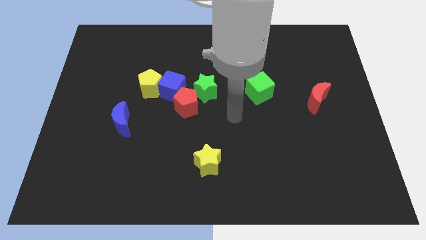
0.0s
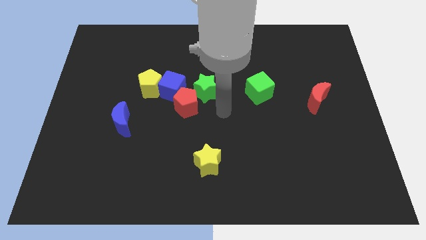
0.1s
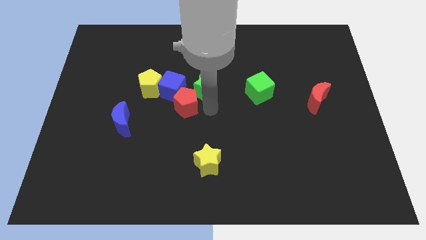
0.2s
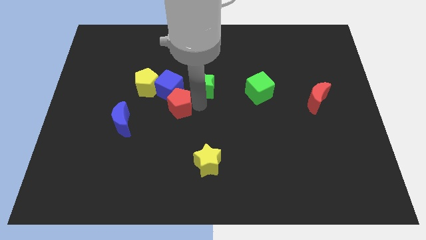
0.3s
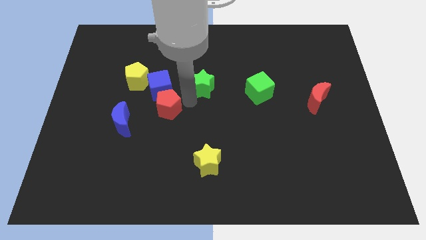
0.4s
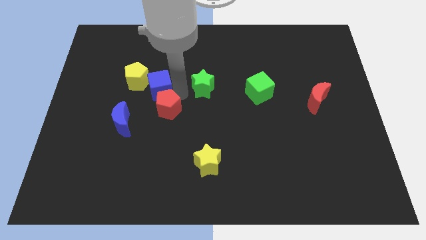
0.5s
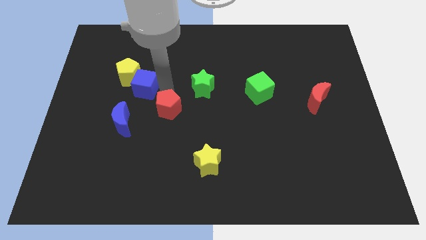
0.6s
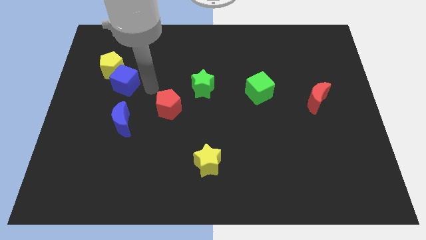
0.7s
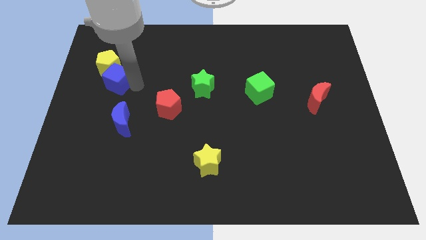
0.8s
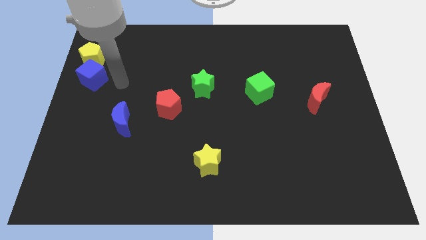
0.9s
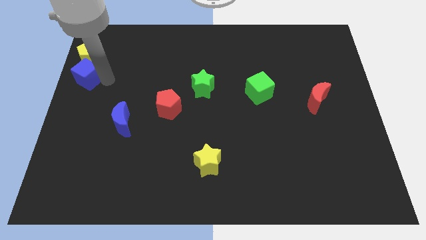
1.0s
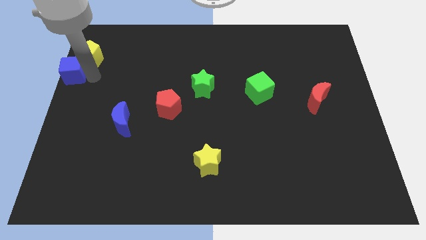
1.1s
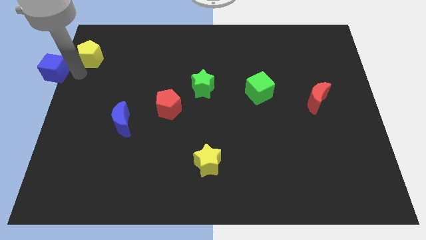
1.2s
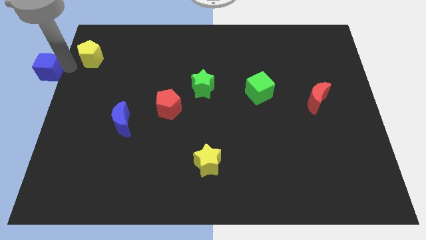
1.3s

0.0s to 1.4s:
pull the yellow pentagon apart from the blue cube

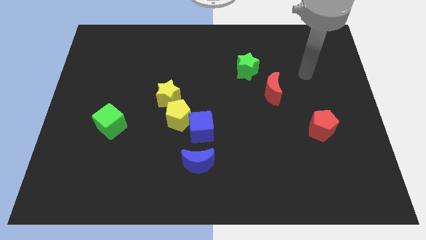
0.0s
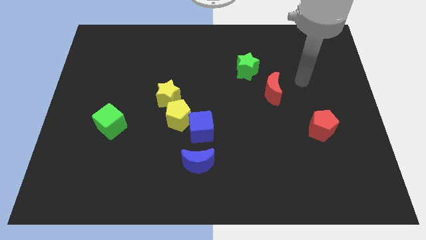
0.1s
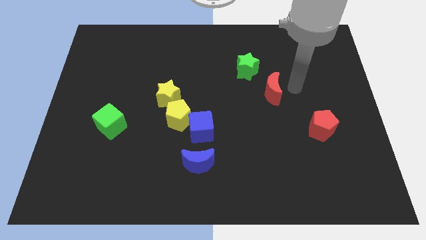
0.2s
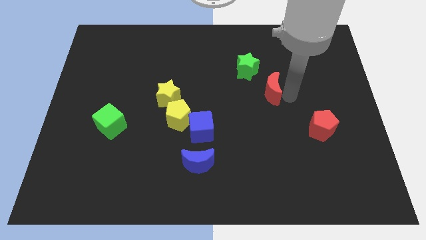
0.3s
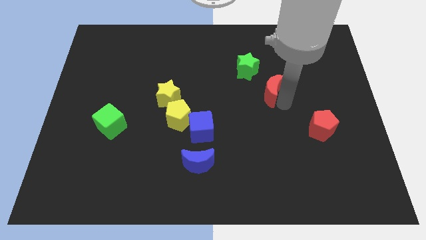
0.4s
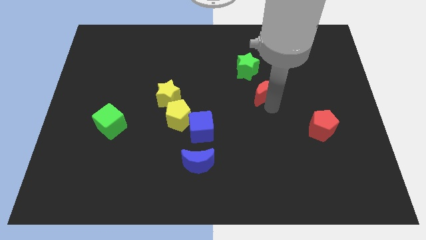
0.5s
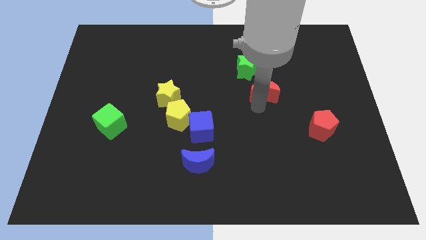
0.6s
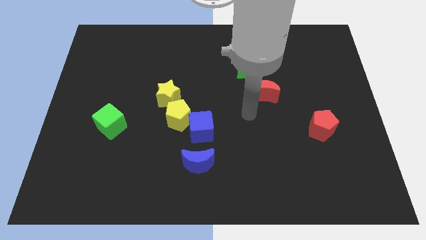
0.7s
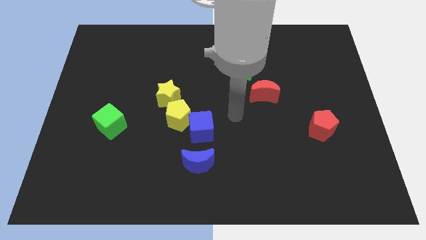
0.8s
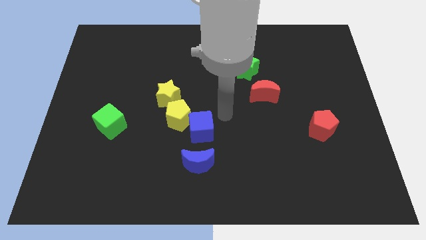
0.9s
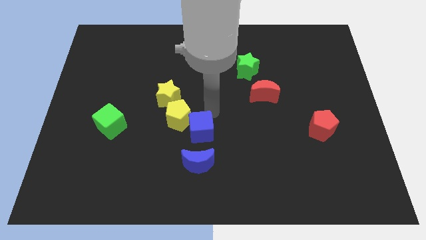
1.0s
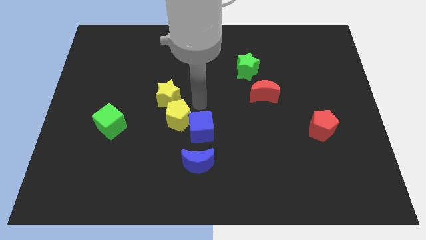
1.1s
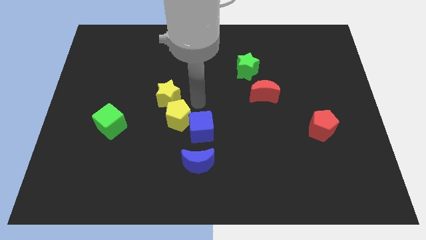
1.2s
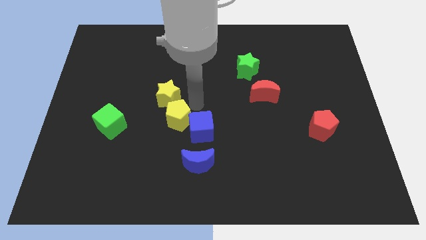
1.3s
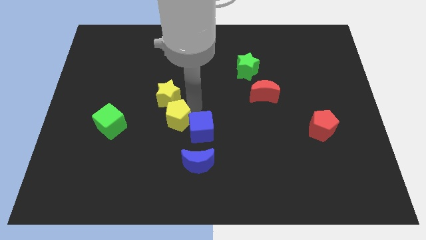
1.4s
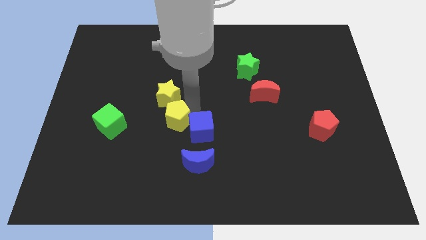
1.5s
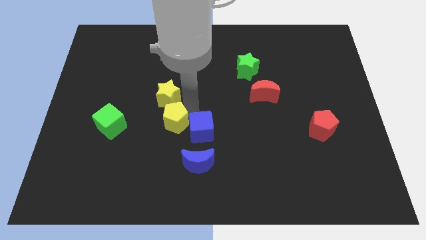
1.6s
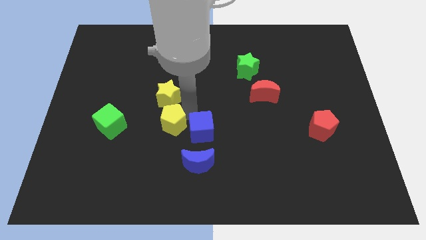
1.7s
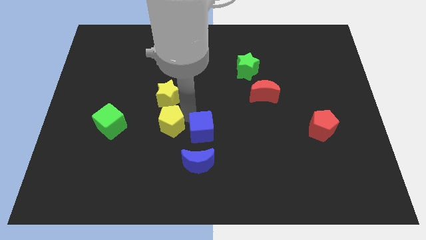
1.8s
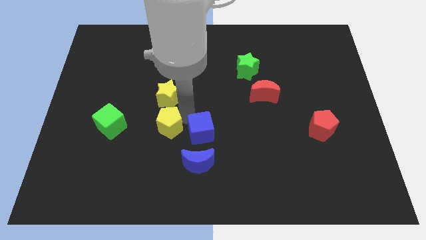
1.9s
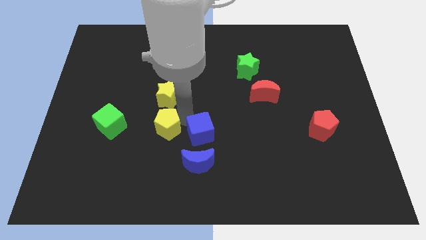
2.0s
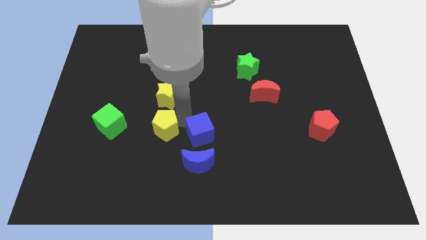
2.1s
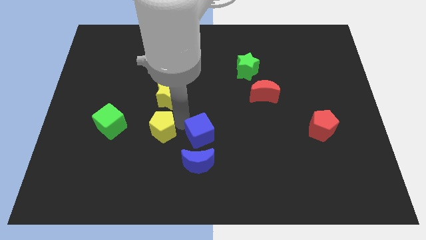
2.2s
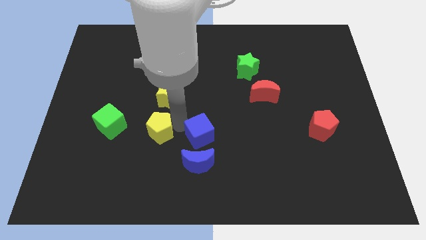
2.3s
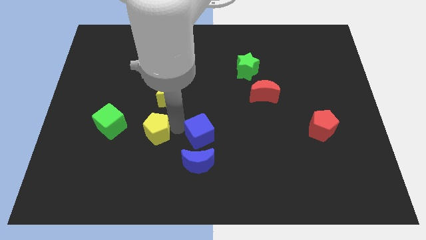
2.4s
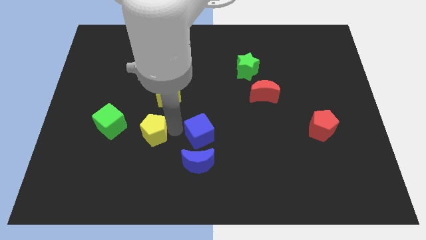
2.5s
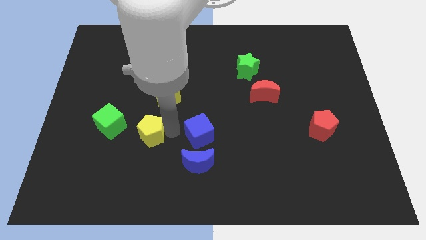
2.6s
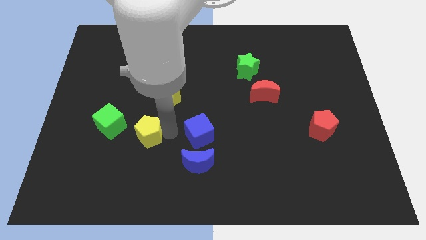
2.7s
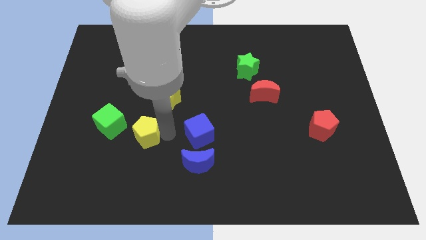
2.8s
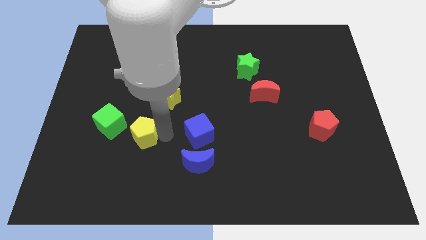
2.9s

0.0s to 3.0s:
separate the yellow pentagon from the blue cube and yellow star

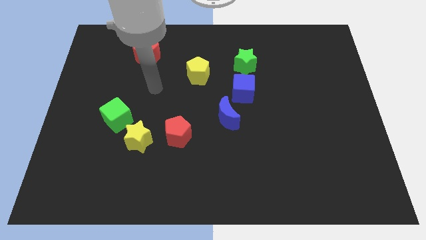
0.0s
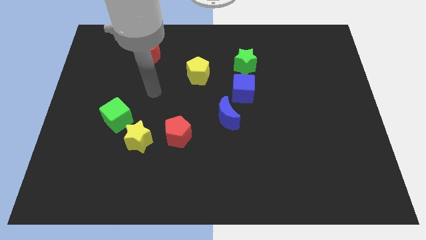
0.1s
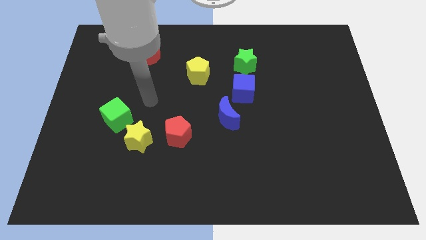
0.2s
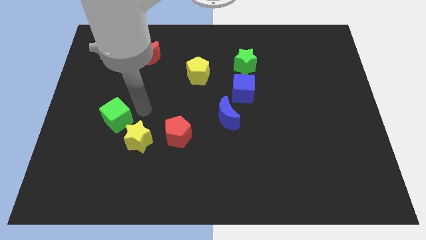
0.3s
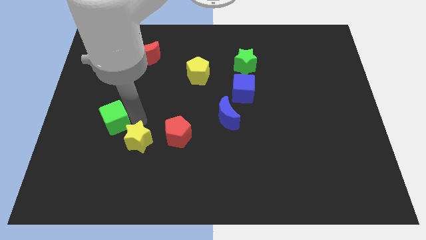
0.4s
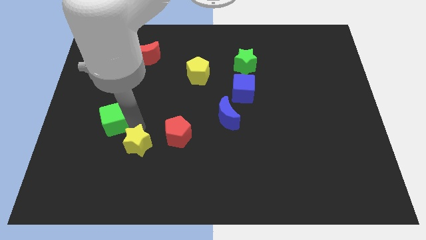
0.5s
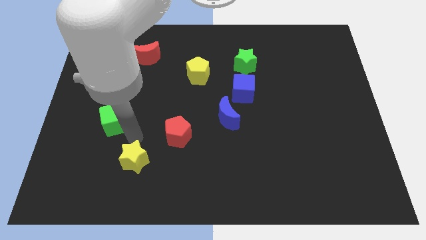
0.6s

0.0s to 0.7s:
move the green cube away from the yellow star

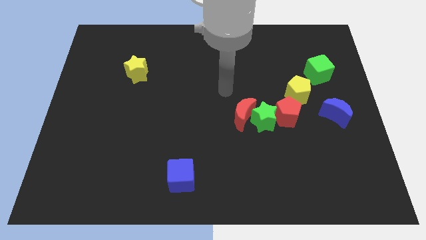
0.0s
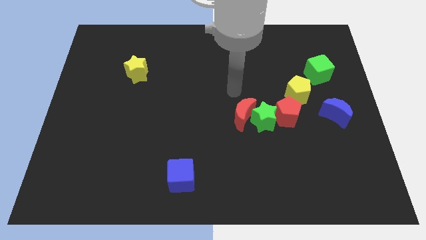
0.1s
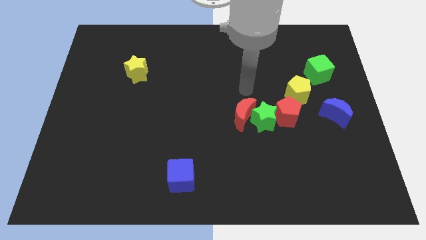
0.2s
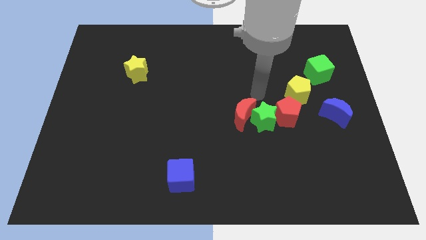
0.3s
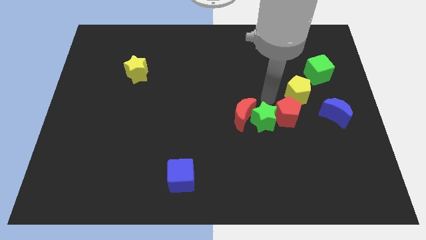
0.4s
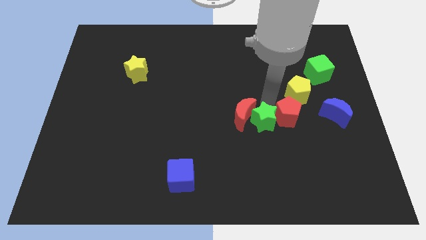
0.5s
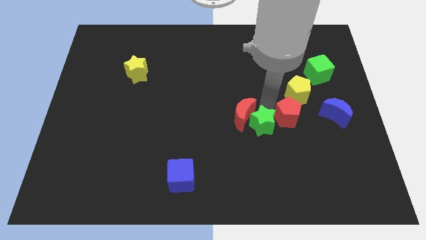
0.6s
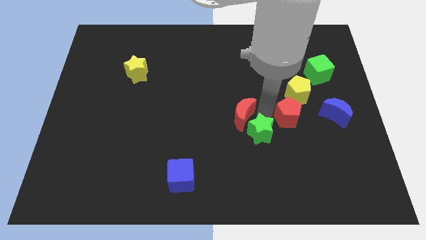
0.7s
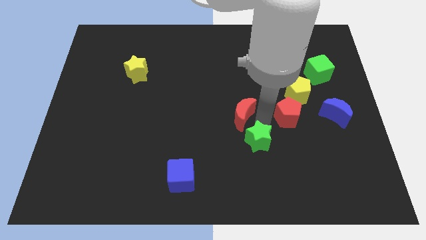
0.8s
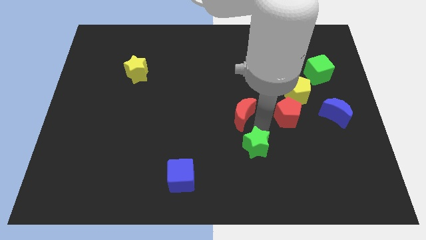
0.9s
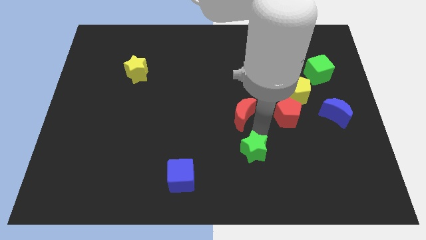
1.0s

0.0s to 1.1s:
separate the green star from the red moon and red pentagon

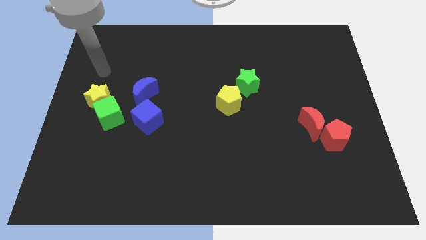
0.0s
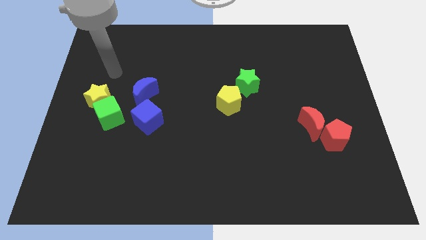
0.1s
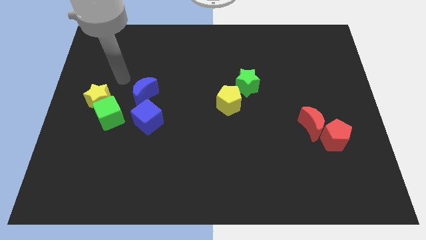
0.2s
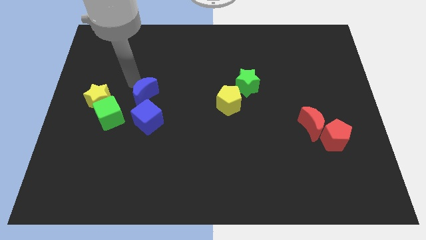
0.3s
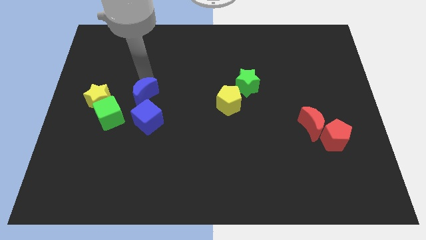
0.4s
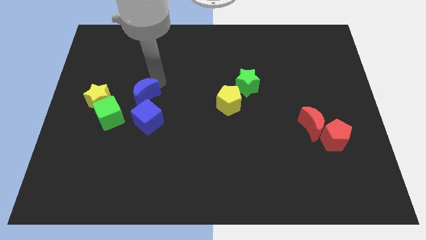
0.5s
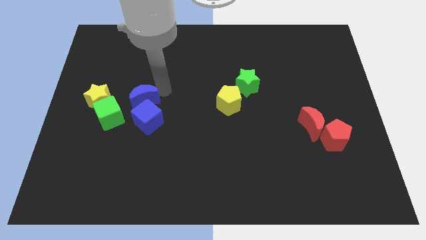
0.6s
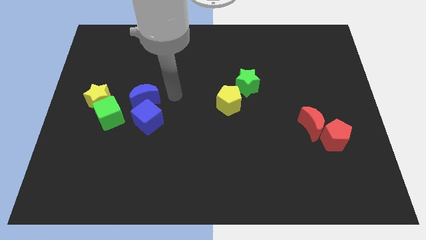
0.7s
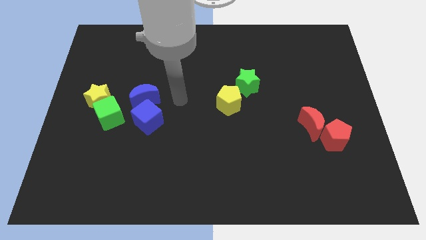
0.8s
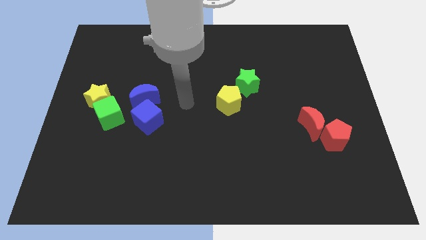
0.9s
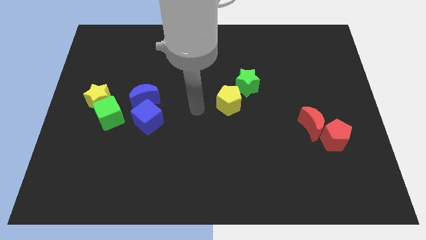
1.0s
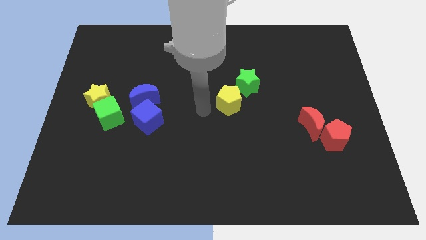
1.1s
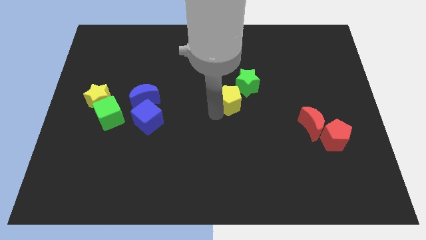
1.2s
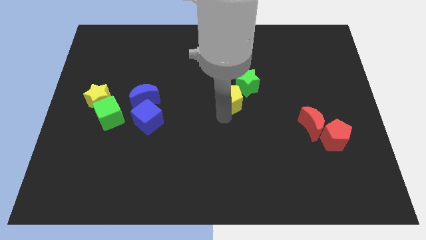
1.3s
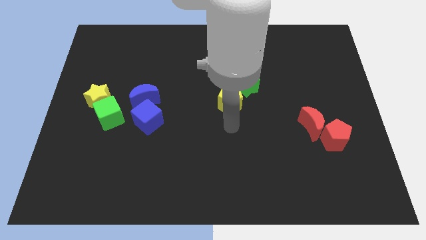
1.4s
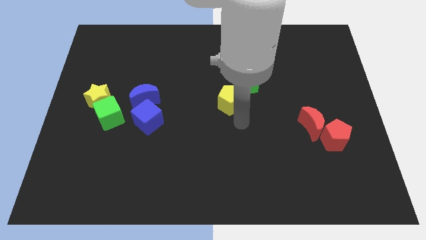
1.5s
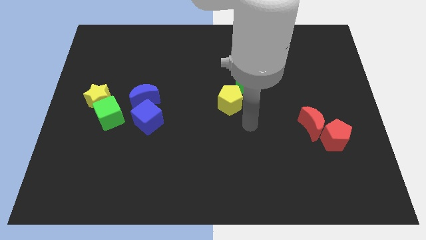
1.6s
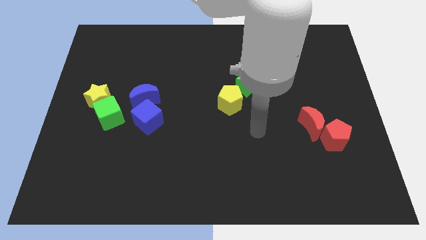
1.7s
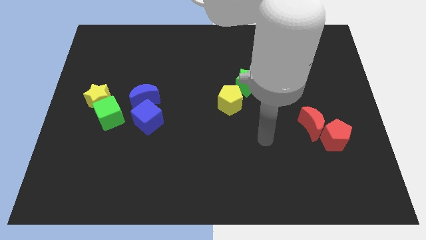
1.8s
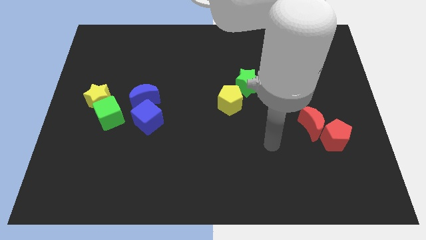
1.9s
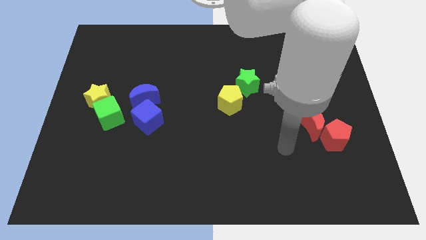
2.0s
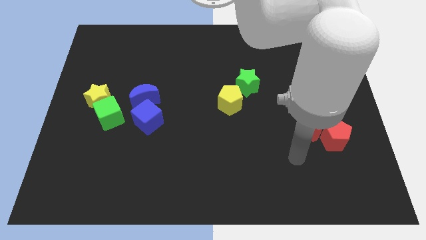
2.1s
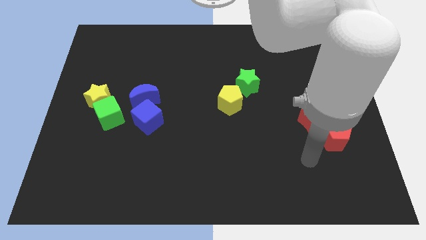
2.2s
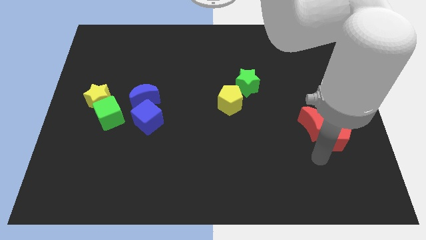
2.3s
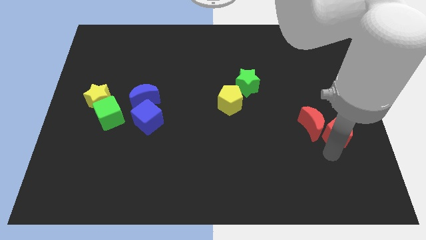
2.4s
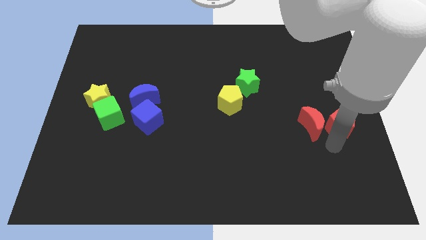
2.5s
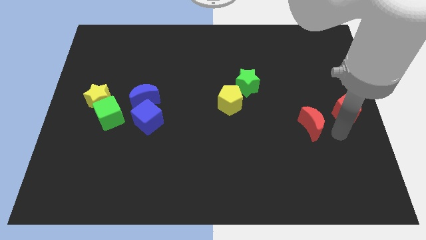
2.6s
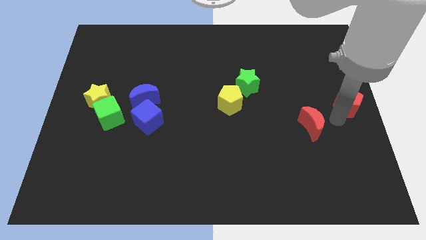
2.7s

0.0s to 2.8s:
separate the red moon from the red pentagon

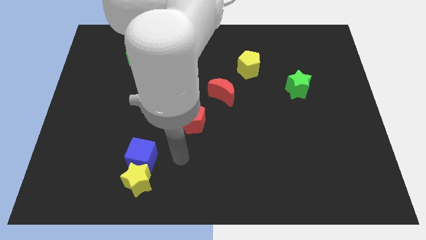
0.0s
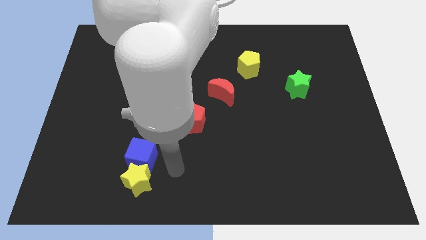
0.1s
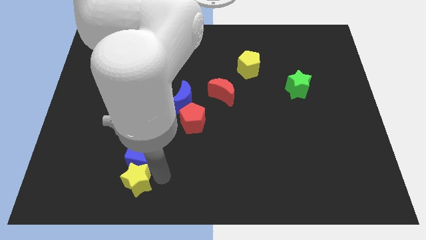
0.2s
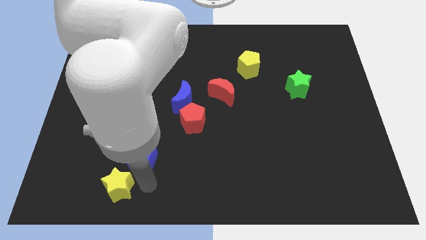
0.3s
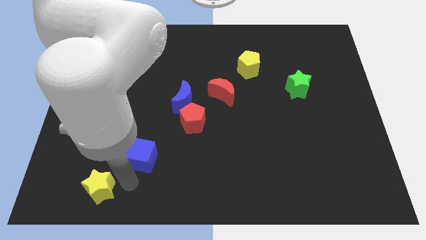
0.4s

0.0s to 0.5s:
pull the blue cube apart from the yellow star

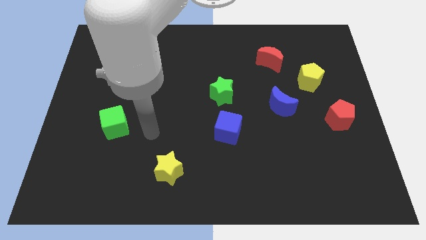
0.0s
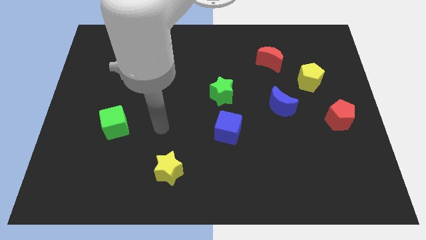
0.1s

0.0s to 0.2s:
separate the blue cube from the green star
